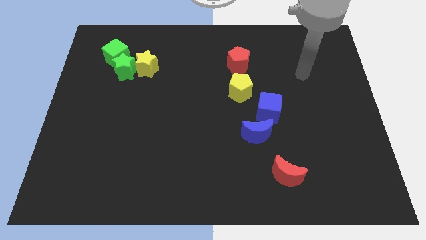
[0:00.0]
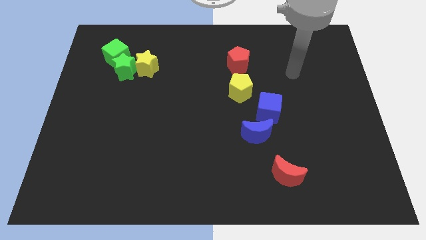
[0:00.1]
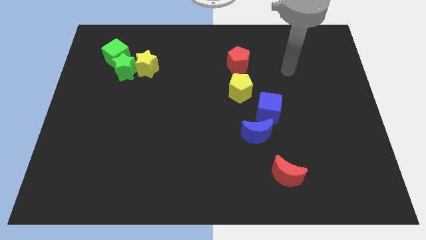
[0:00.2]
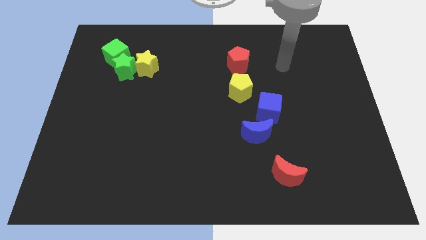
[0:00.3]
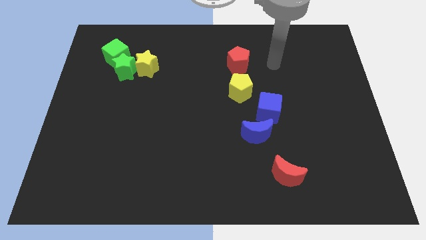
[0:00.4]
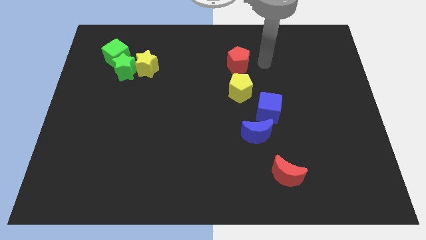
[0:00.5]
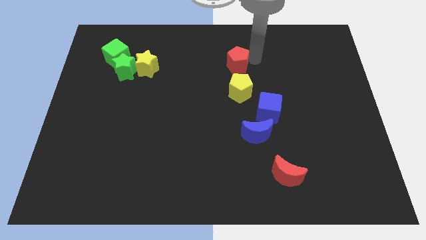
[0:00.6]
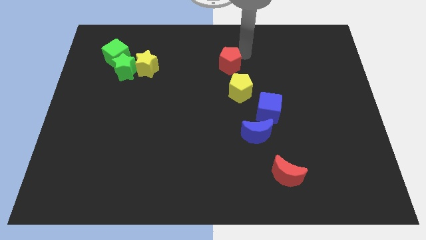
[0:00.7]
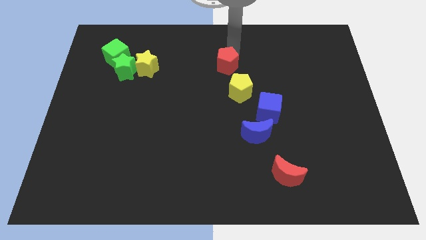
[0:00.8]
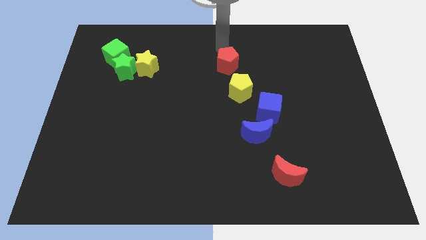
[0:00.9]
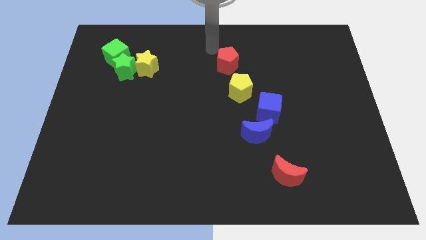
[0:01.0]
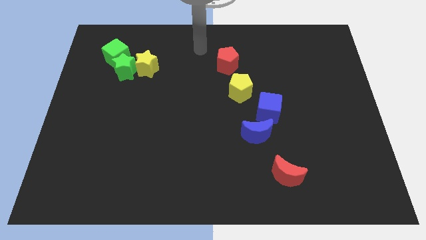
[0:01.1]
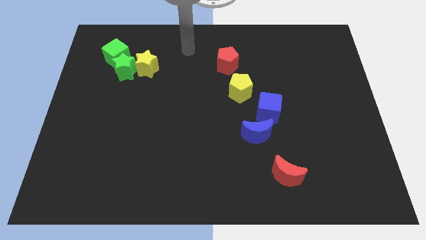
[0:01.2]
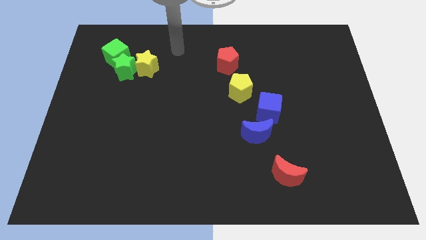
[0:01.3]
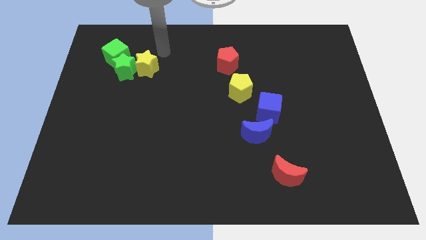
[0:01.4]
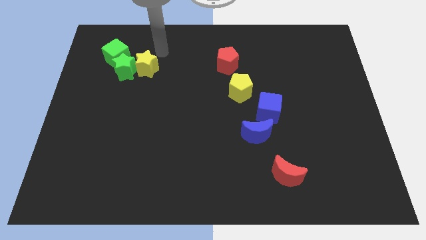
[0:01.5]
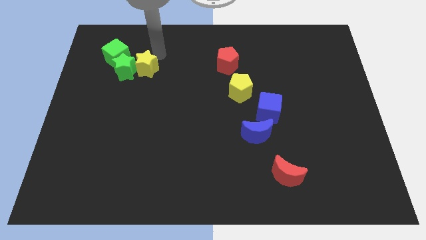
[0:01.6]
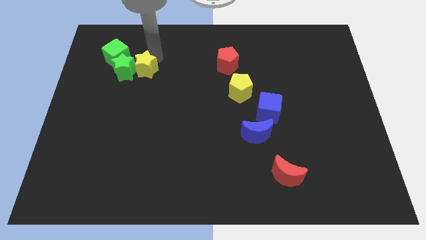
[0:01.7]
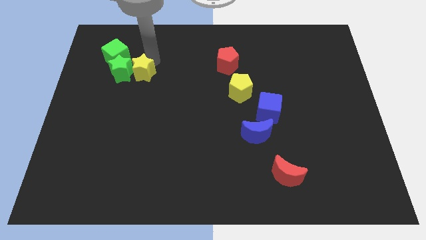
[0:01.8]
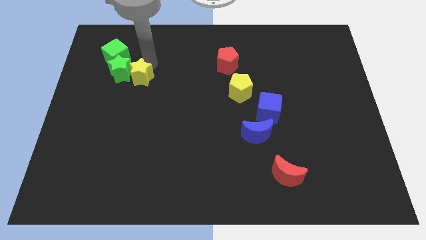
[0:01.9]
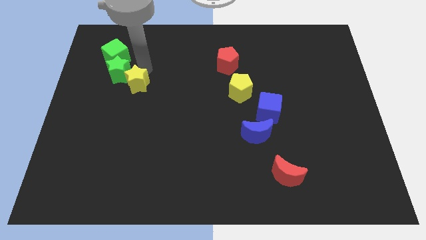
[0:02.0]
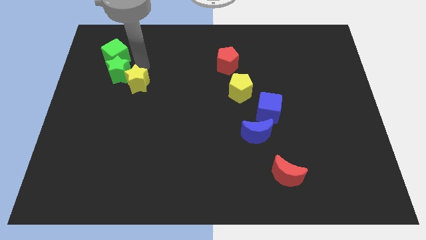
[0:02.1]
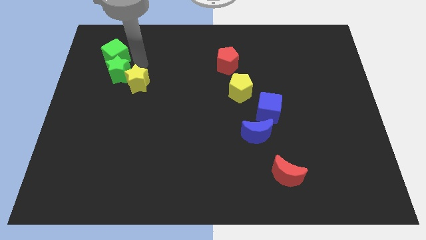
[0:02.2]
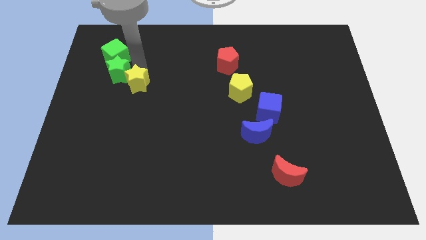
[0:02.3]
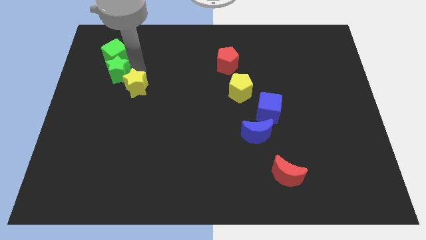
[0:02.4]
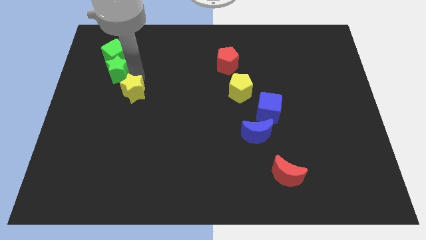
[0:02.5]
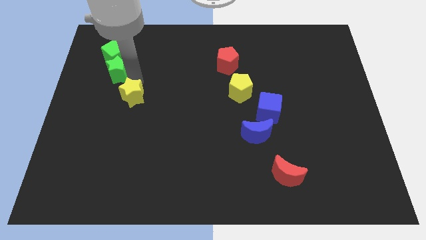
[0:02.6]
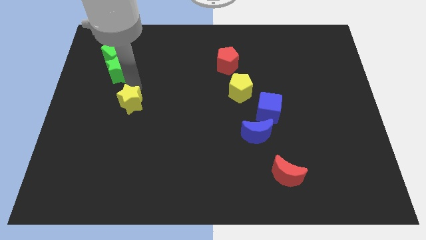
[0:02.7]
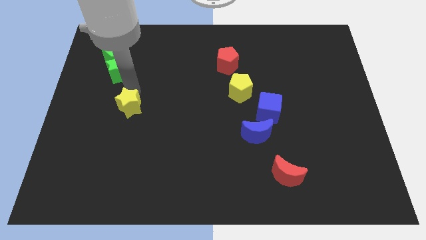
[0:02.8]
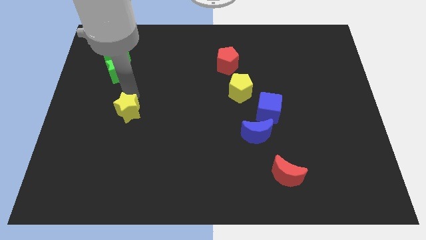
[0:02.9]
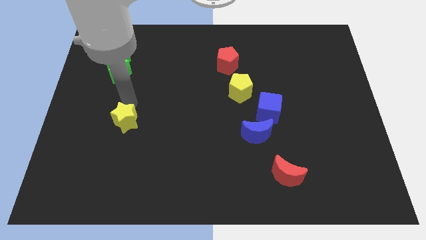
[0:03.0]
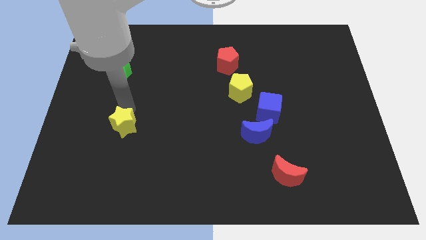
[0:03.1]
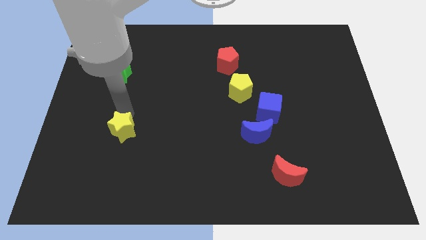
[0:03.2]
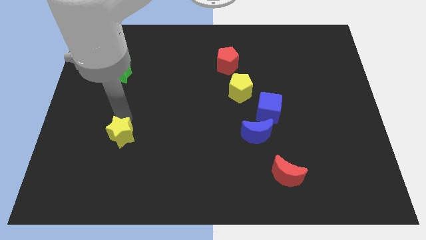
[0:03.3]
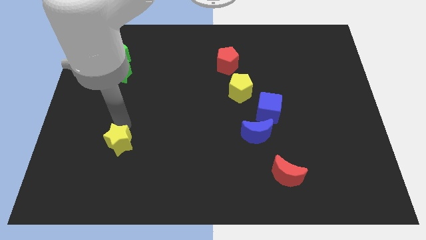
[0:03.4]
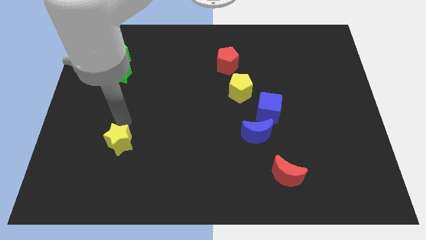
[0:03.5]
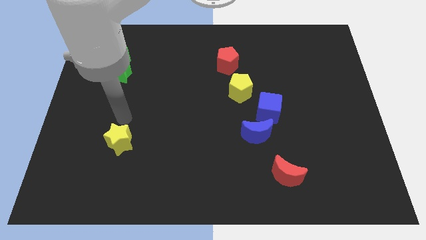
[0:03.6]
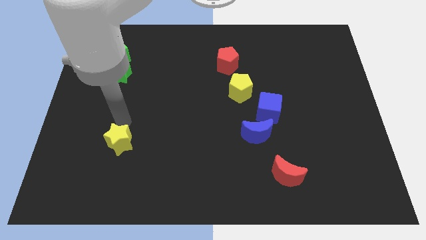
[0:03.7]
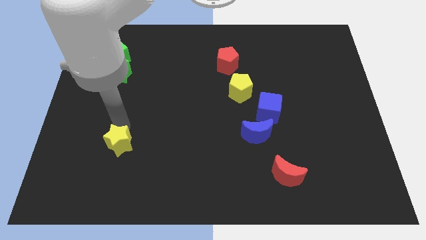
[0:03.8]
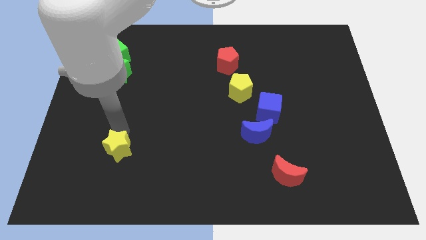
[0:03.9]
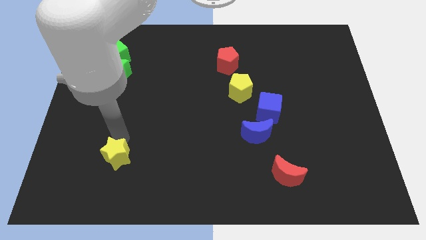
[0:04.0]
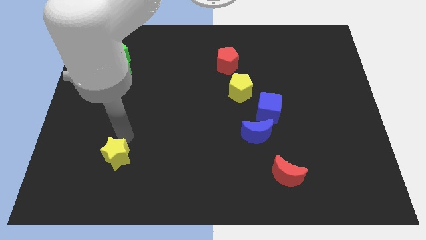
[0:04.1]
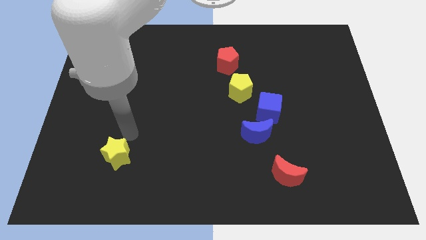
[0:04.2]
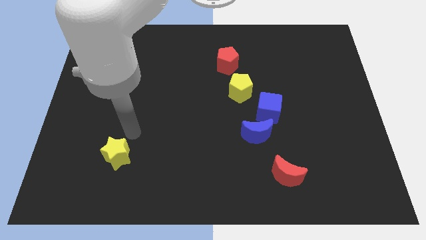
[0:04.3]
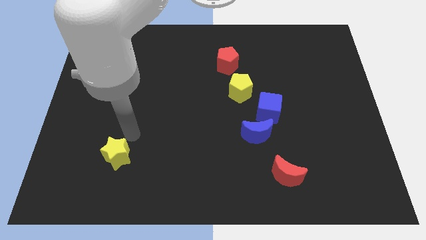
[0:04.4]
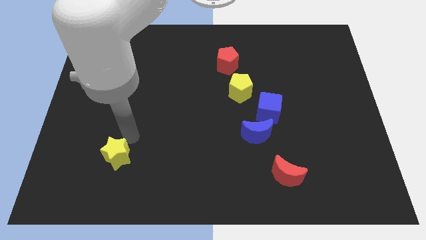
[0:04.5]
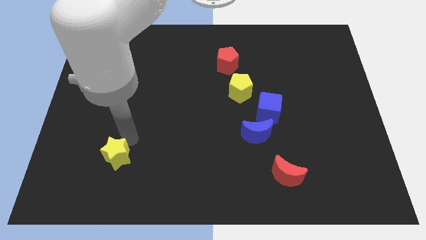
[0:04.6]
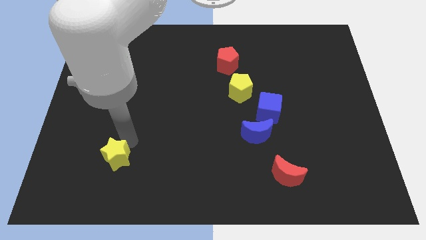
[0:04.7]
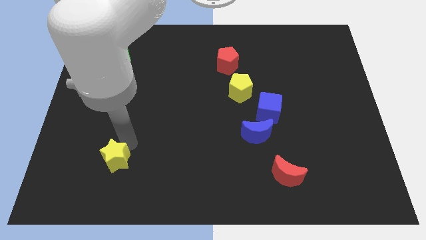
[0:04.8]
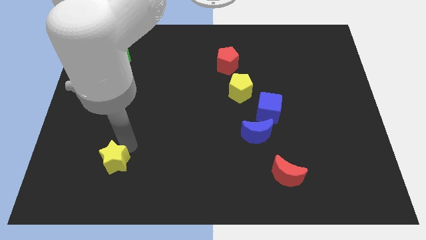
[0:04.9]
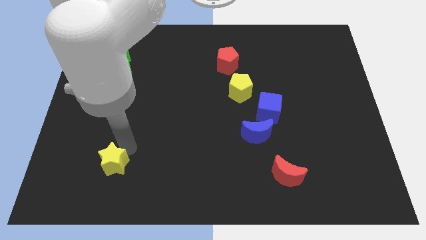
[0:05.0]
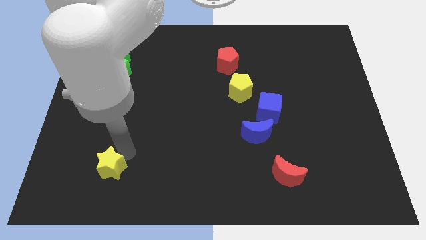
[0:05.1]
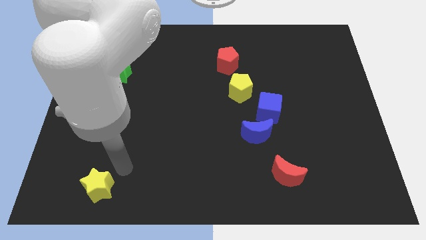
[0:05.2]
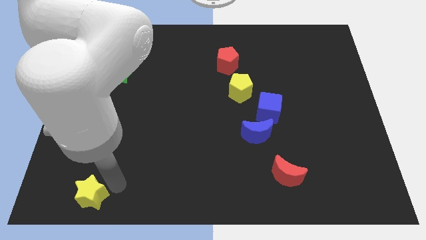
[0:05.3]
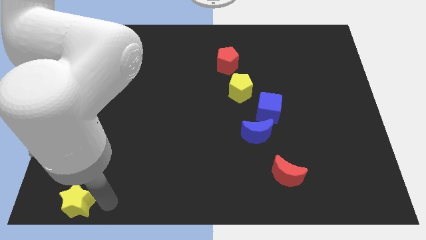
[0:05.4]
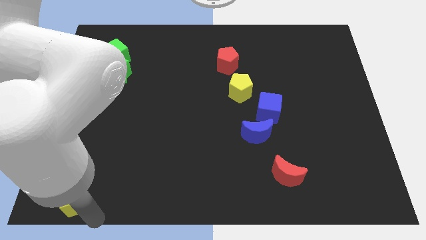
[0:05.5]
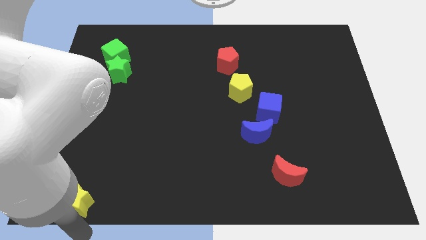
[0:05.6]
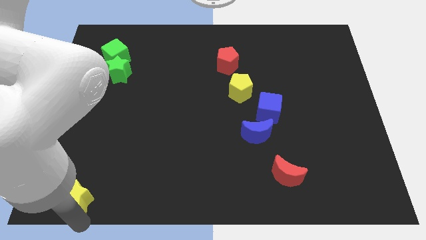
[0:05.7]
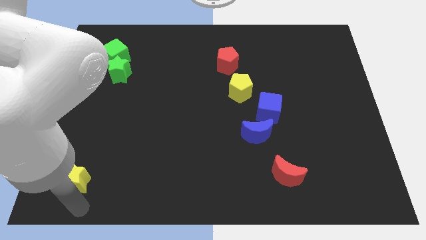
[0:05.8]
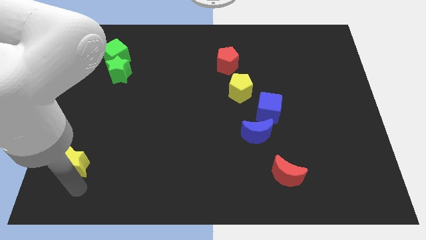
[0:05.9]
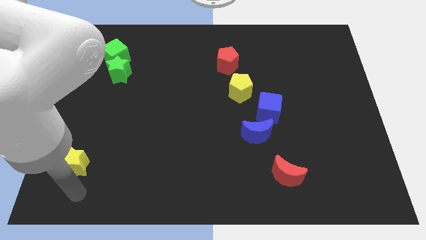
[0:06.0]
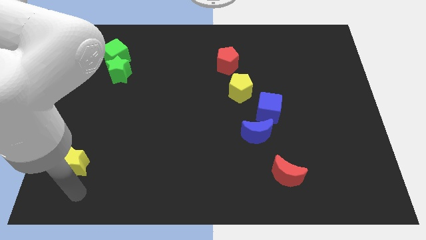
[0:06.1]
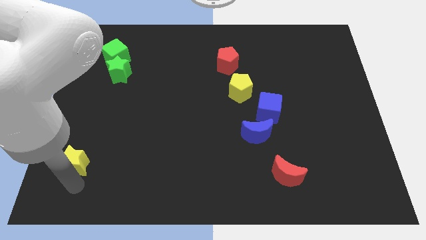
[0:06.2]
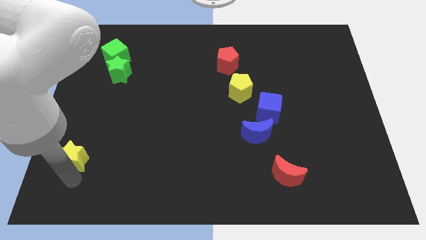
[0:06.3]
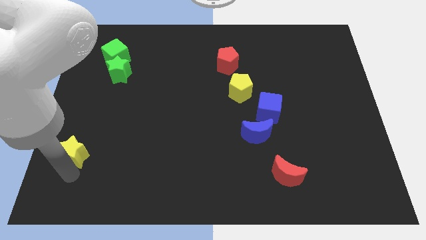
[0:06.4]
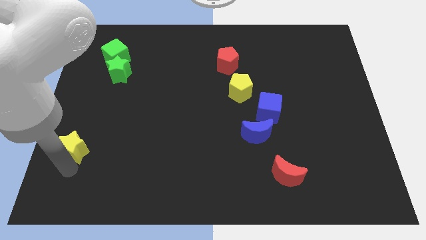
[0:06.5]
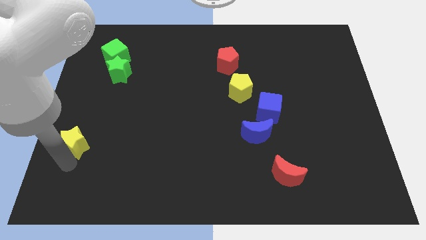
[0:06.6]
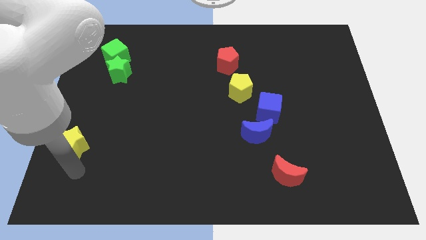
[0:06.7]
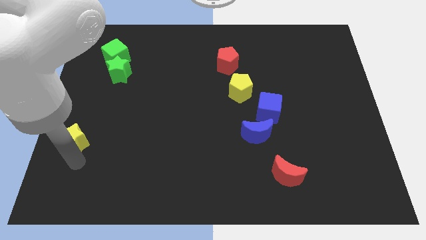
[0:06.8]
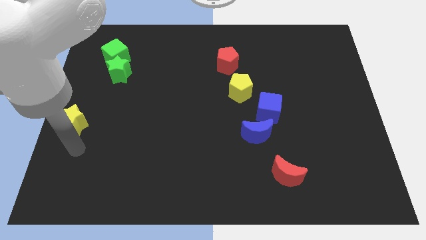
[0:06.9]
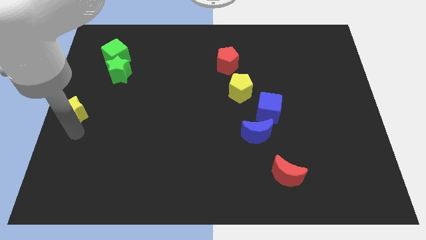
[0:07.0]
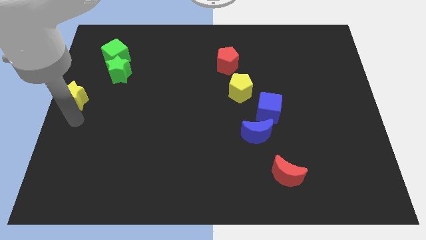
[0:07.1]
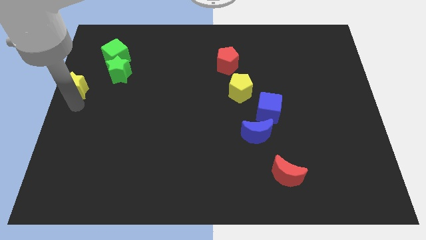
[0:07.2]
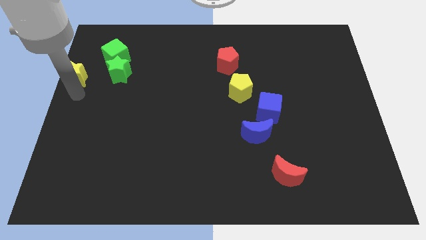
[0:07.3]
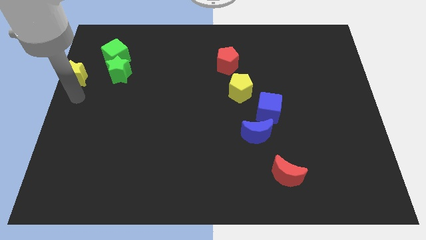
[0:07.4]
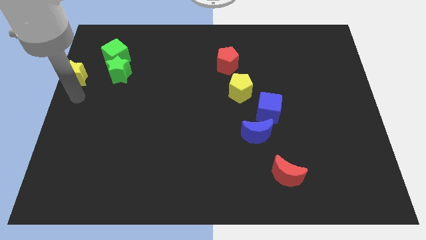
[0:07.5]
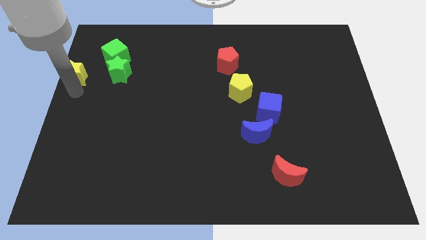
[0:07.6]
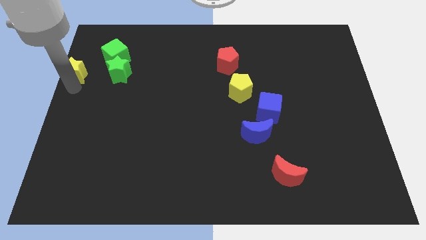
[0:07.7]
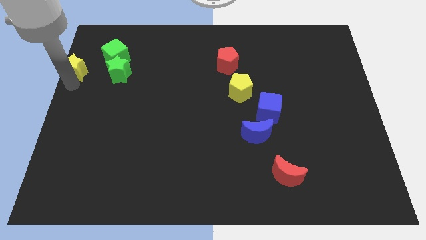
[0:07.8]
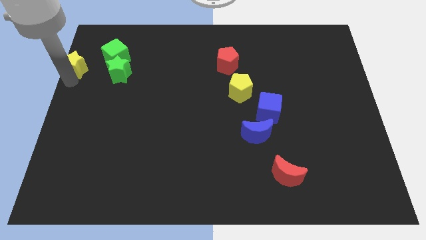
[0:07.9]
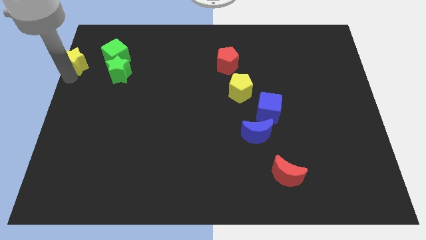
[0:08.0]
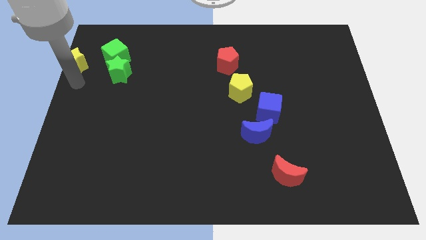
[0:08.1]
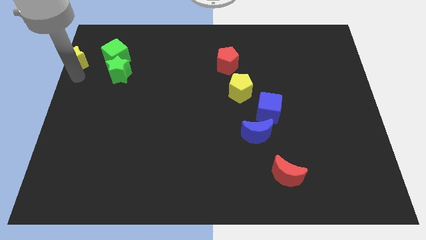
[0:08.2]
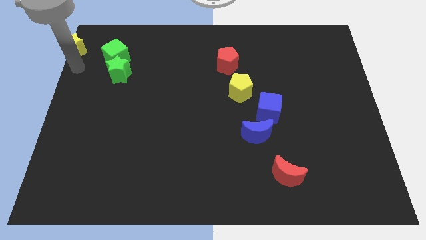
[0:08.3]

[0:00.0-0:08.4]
slide the yellow star to the upper left corner
